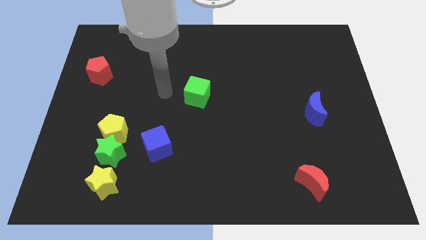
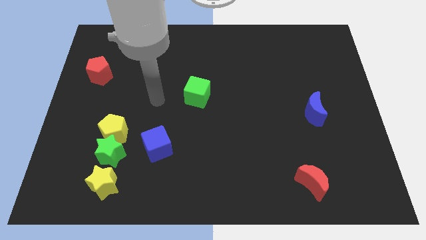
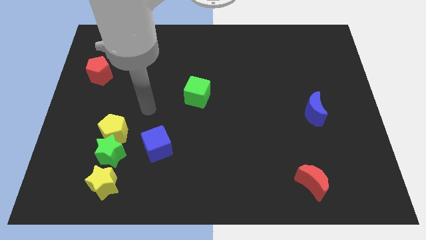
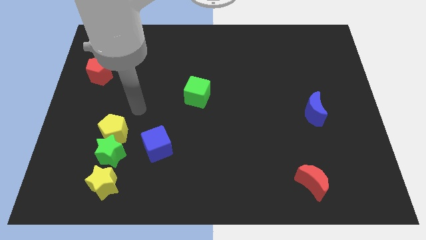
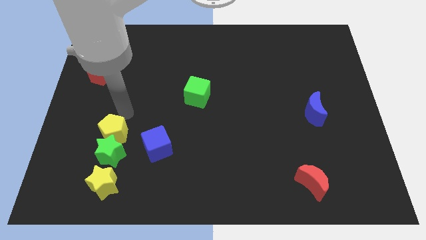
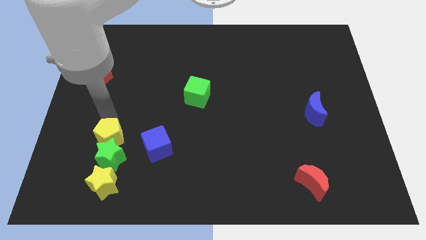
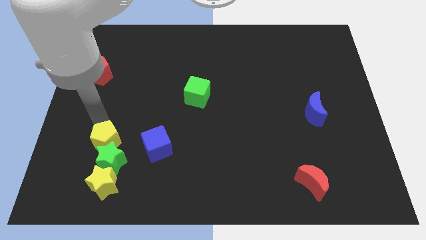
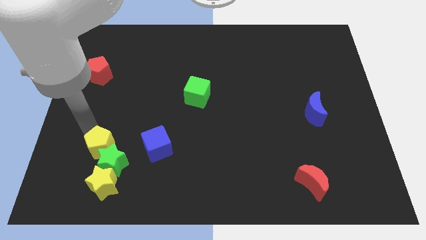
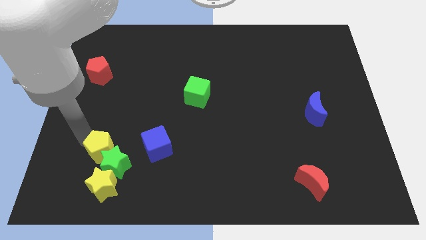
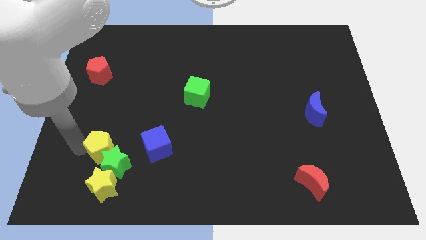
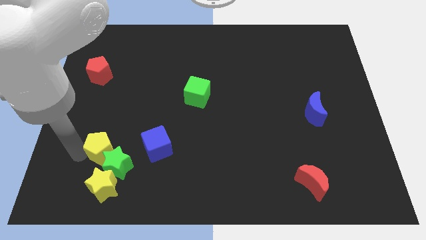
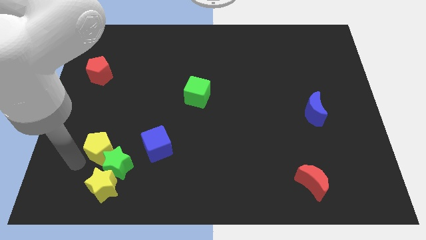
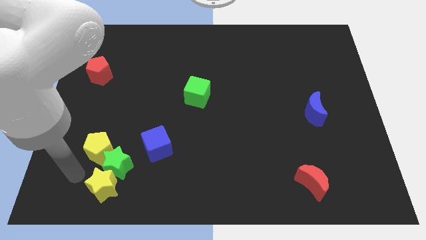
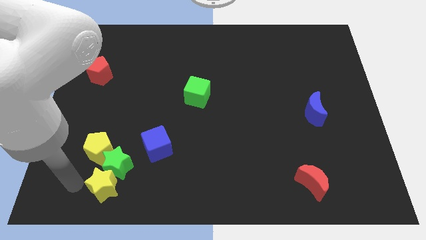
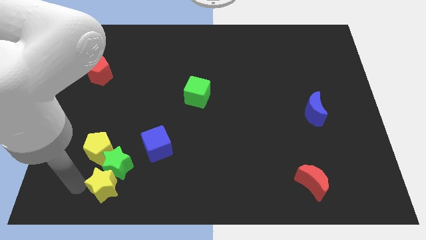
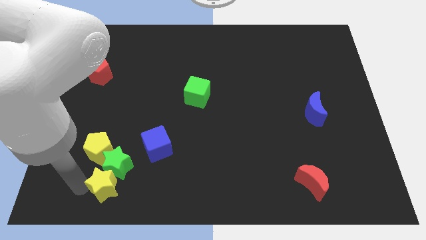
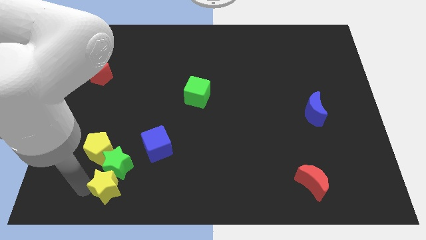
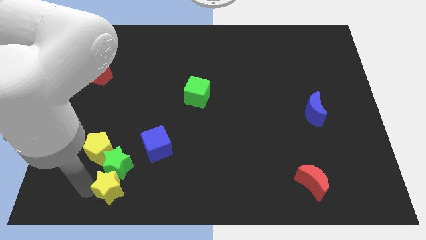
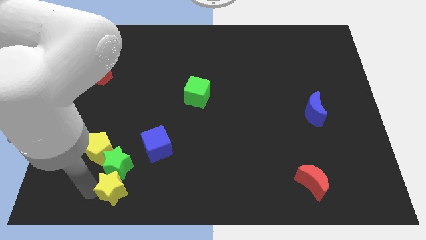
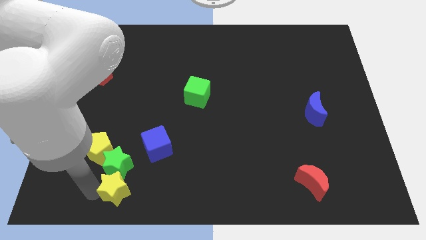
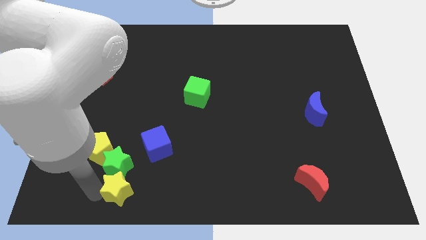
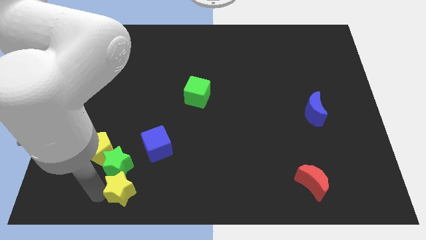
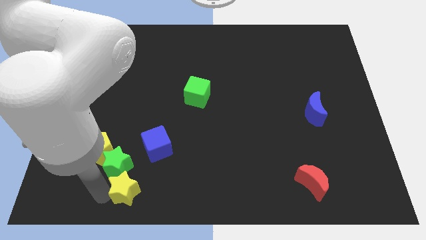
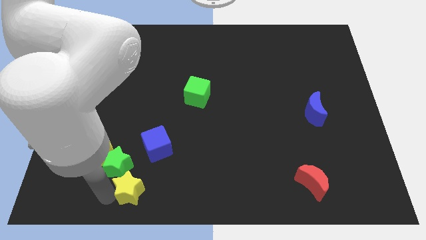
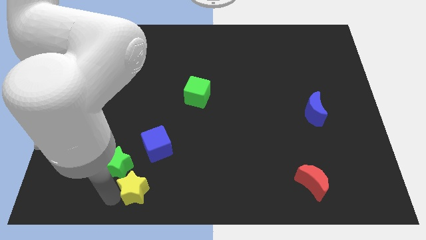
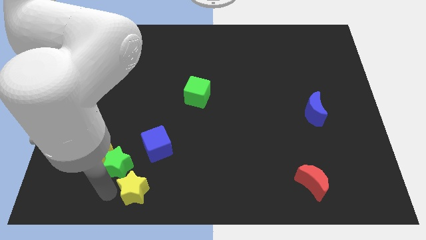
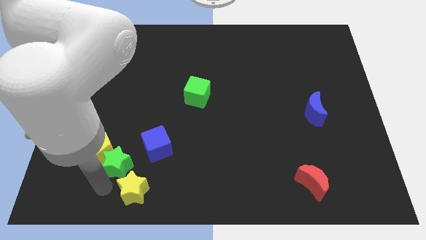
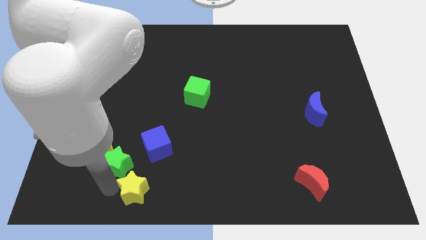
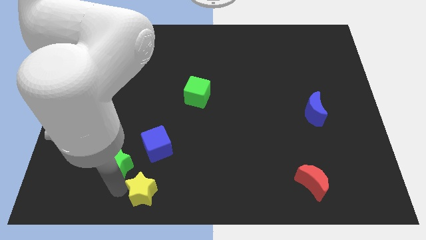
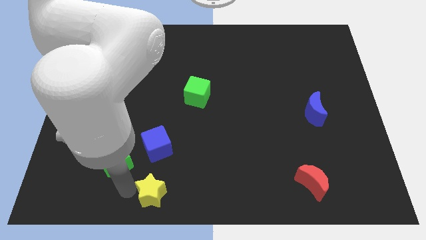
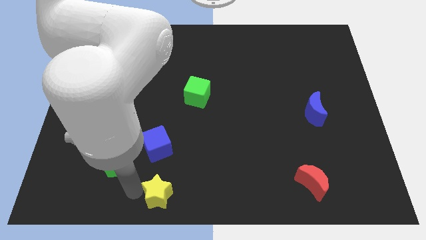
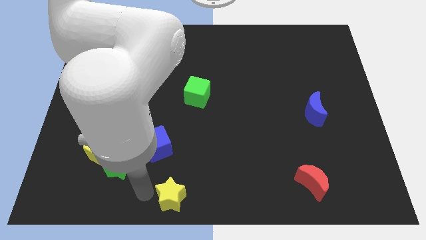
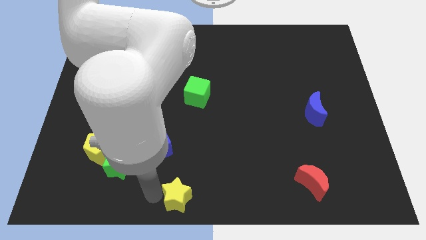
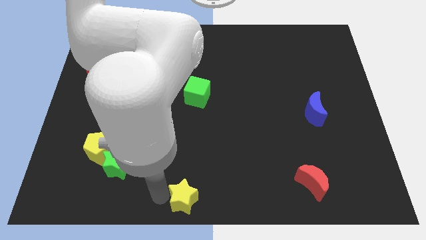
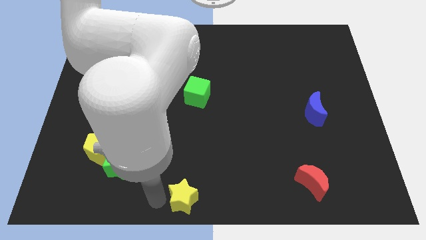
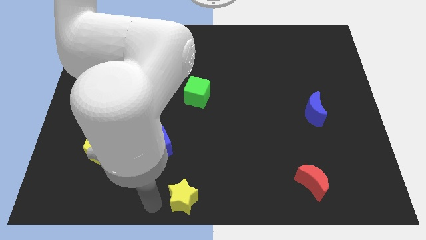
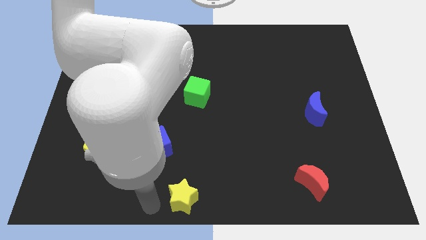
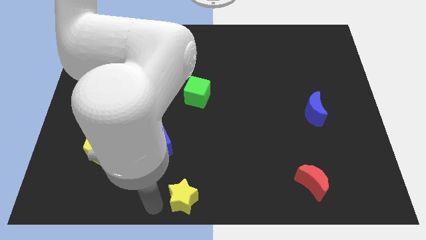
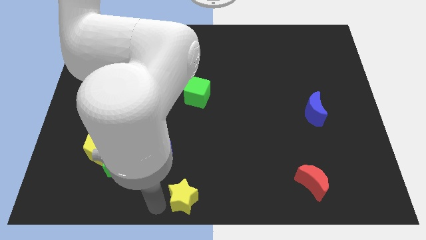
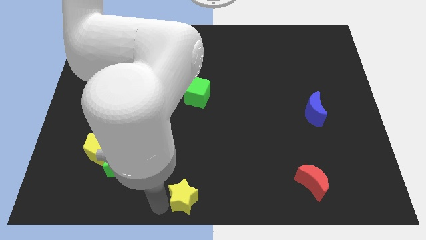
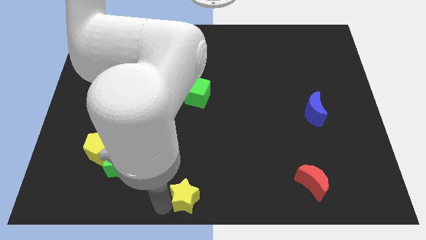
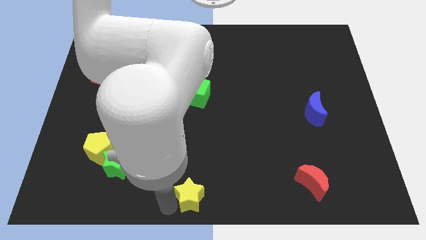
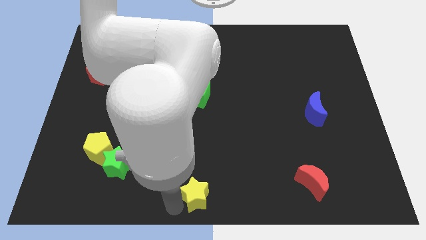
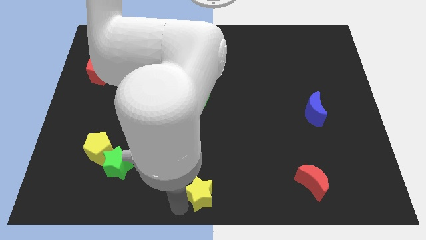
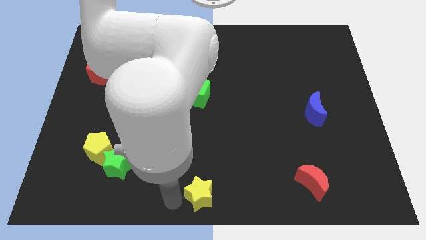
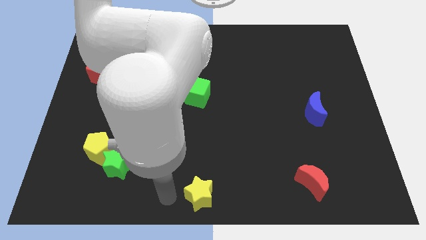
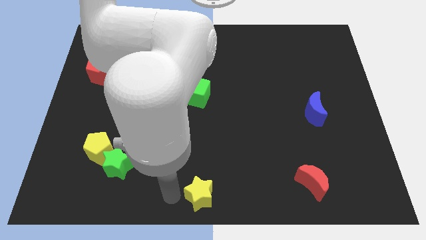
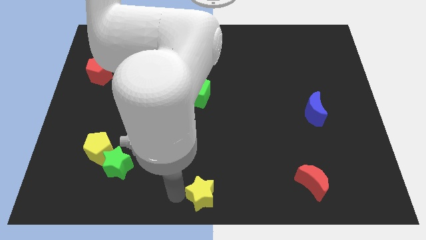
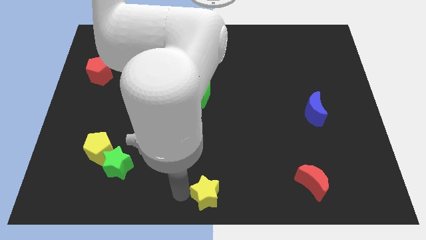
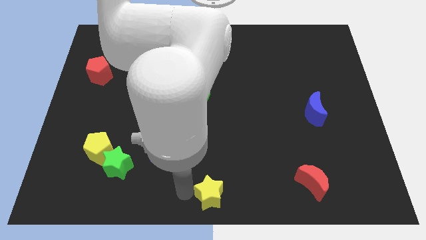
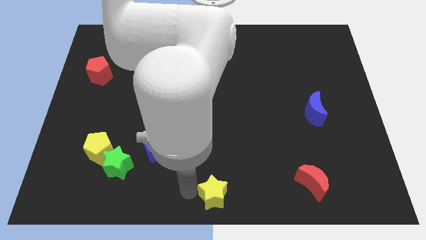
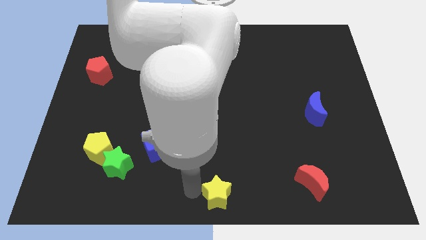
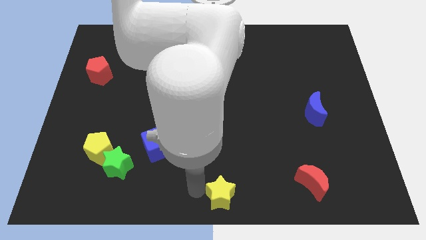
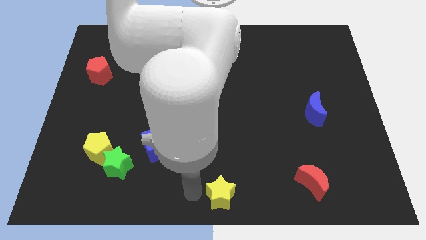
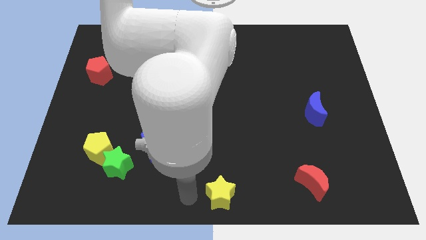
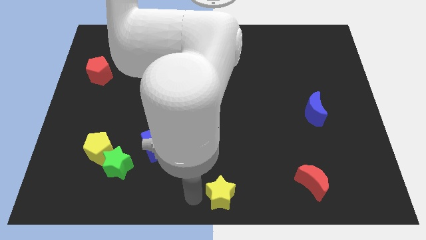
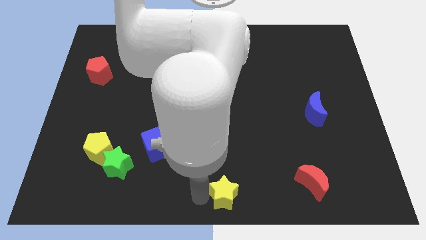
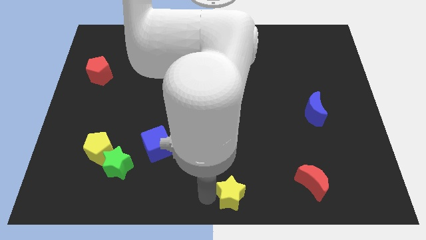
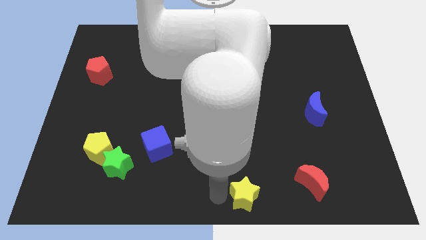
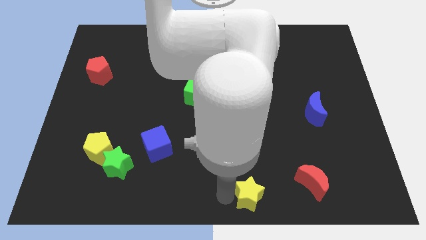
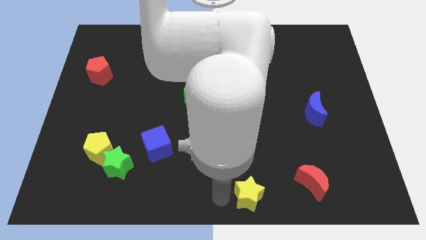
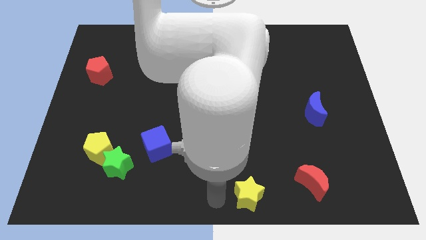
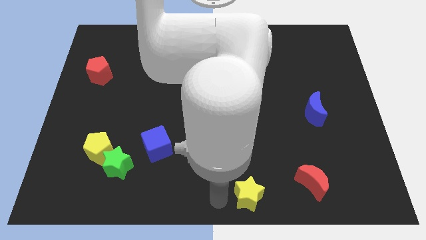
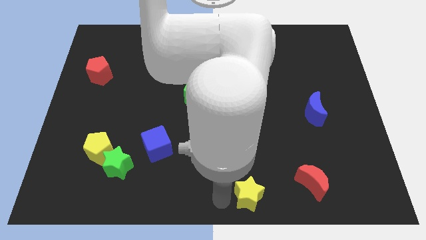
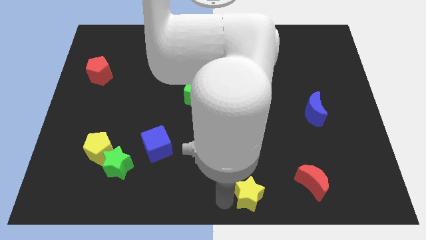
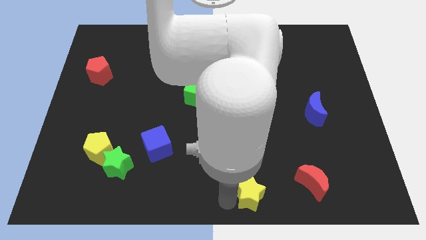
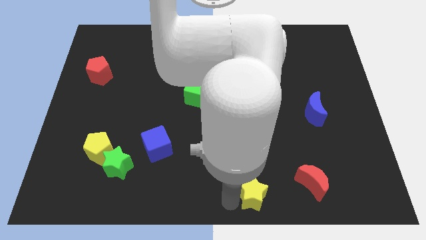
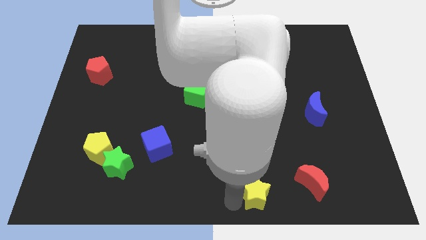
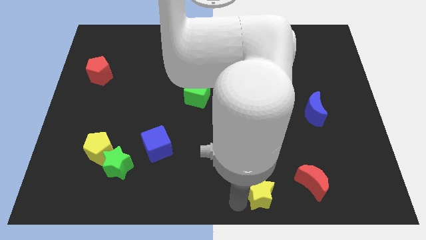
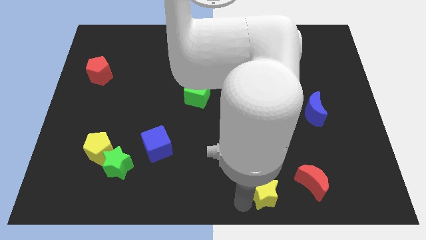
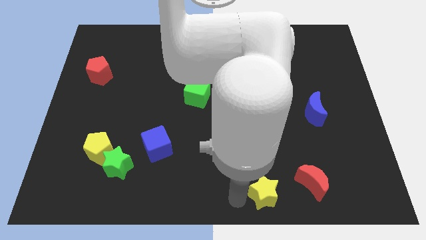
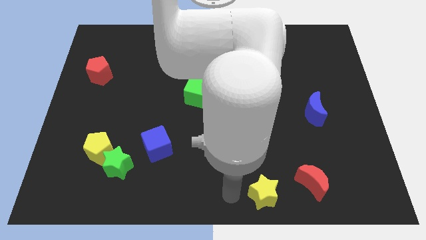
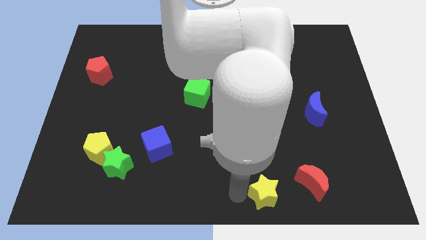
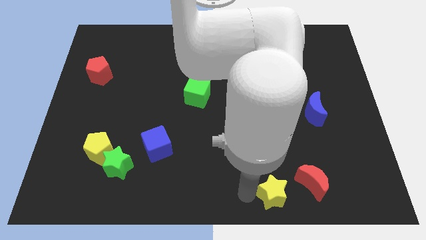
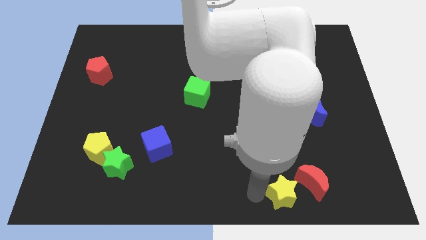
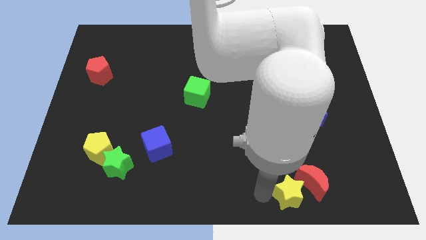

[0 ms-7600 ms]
slide the yellow star towards the red moon
